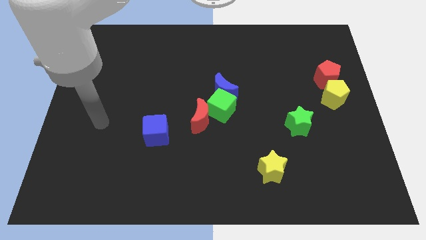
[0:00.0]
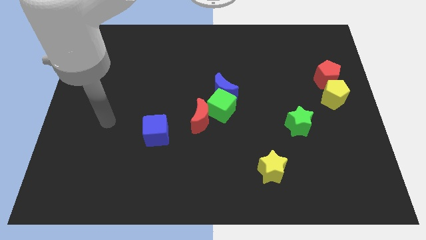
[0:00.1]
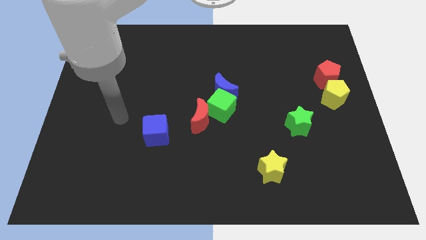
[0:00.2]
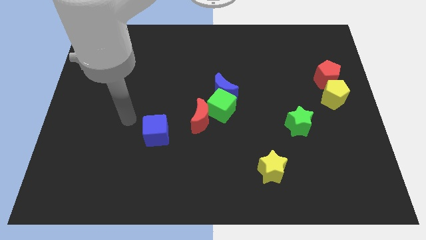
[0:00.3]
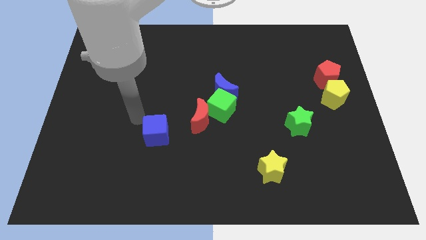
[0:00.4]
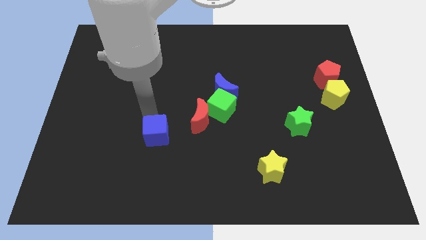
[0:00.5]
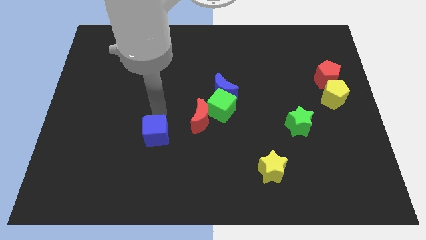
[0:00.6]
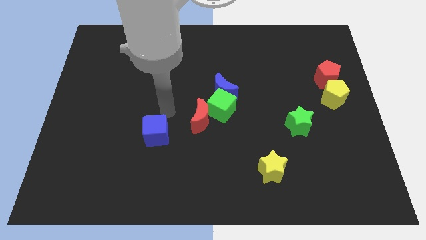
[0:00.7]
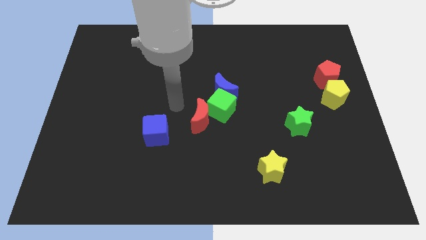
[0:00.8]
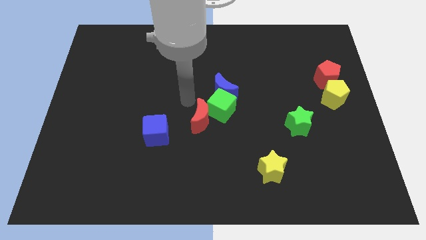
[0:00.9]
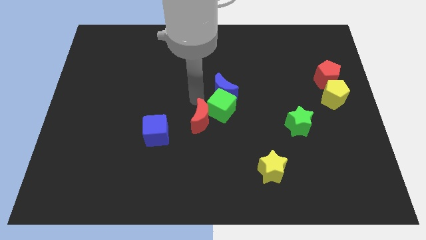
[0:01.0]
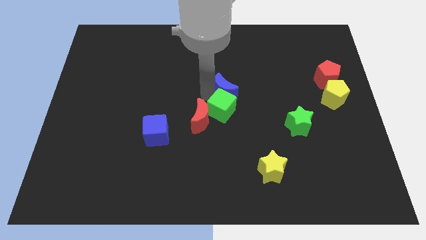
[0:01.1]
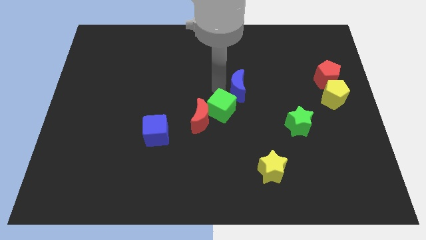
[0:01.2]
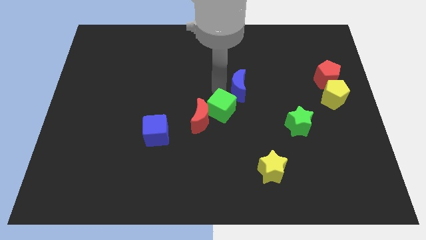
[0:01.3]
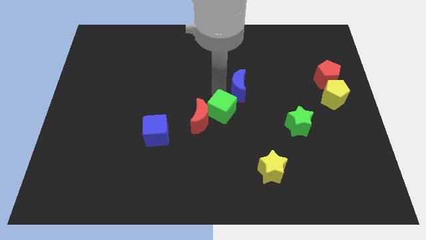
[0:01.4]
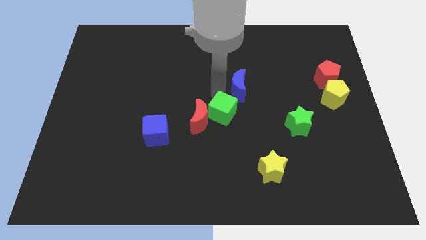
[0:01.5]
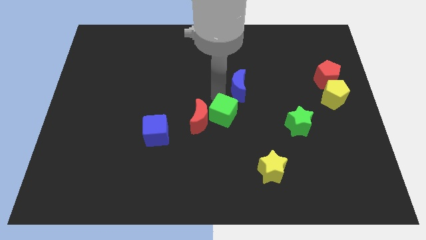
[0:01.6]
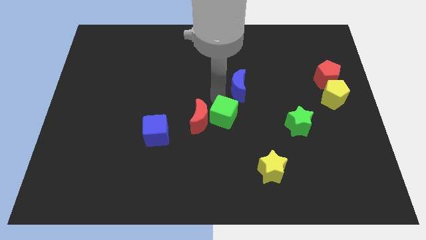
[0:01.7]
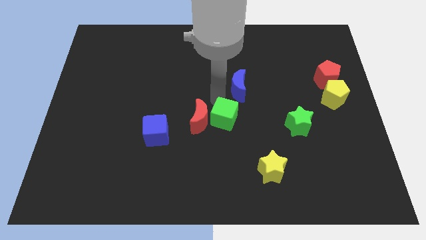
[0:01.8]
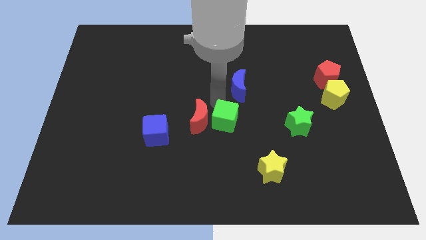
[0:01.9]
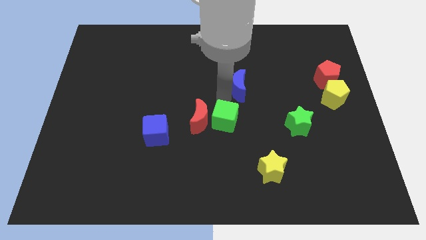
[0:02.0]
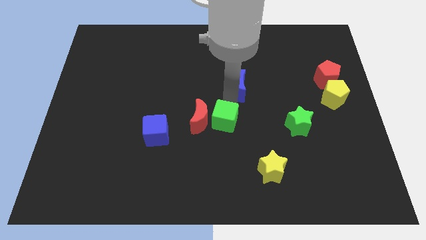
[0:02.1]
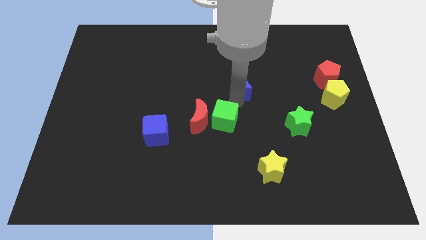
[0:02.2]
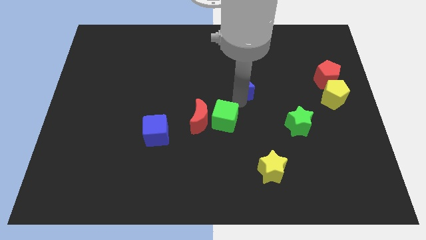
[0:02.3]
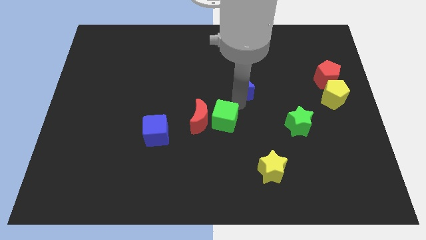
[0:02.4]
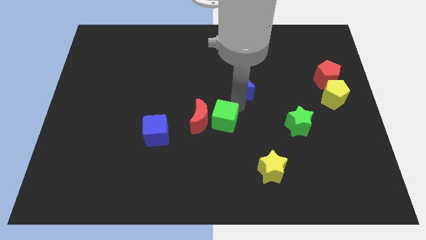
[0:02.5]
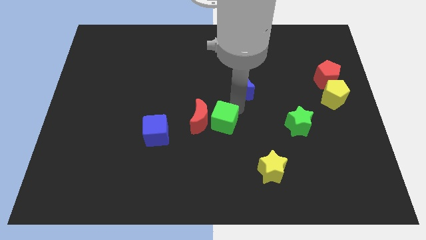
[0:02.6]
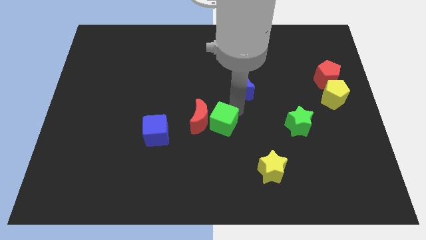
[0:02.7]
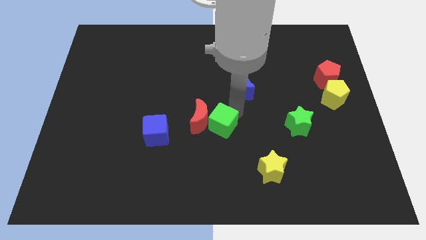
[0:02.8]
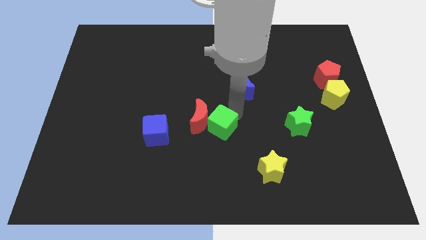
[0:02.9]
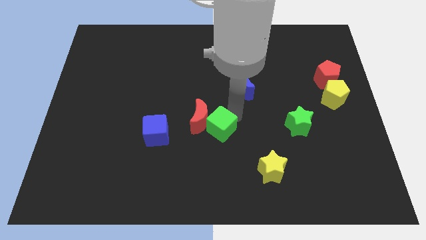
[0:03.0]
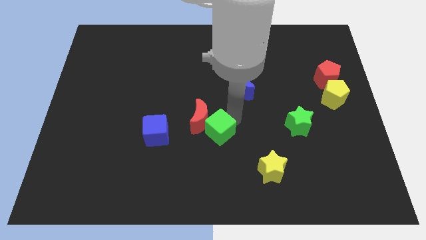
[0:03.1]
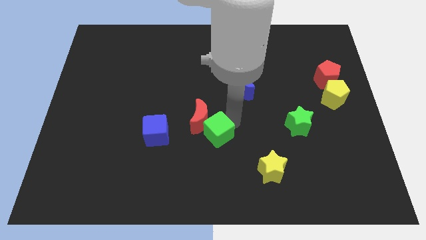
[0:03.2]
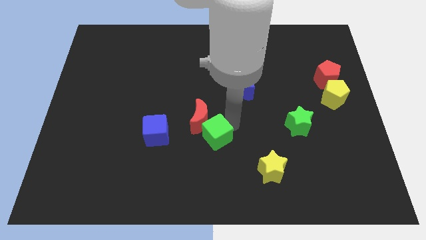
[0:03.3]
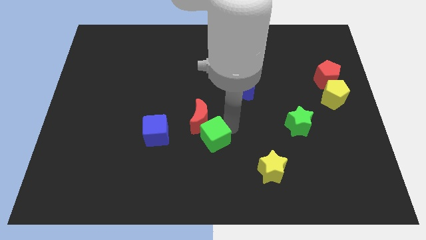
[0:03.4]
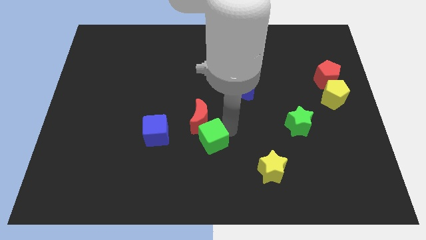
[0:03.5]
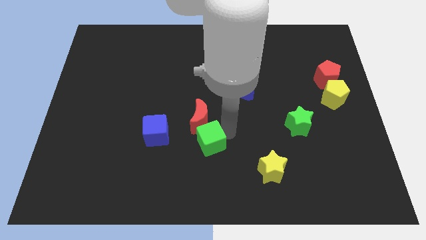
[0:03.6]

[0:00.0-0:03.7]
push the green cube diagonally down and to the left a little

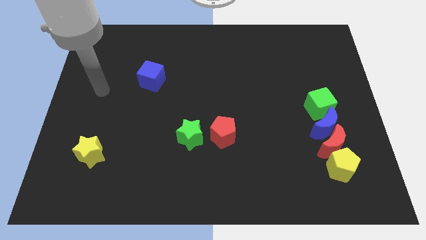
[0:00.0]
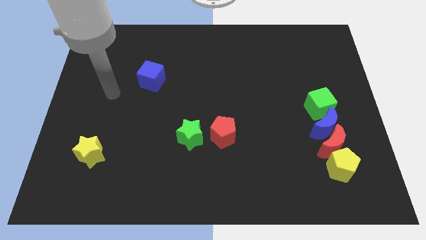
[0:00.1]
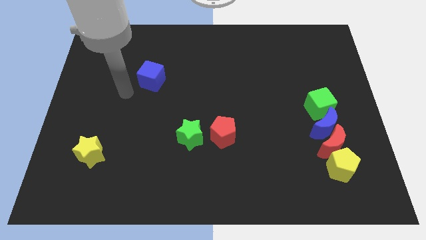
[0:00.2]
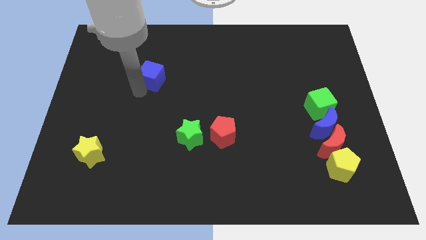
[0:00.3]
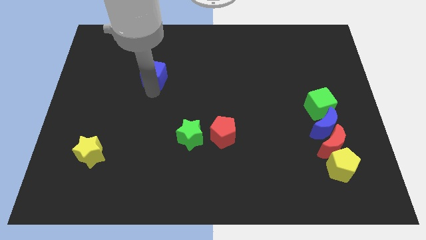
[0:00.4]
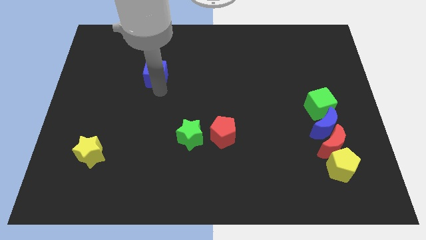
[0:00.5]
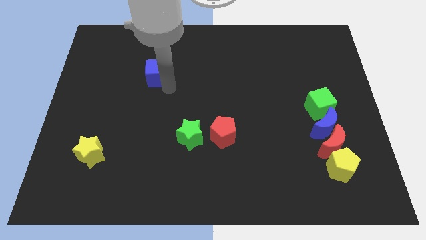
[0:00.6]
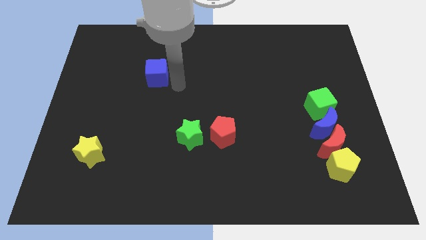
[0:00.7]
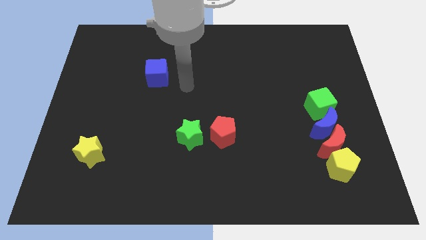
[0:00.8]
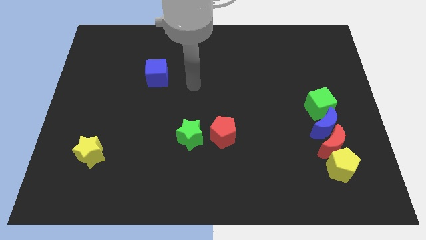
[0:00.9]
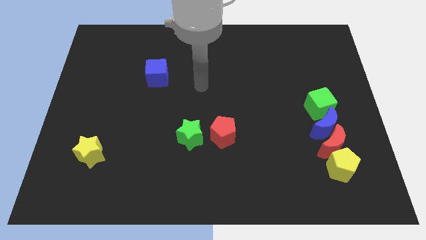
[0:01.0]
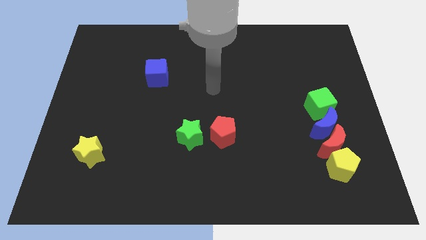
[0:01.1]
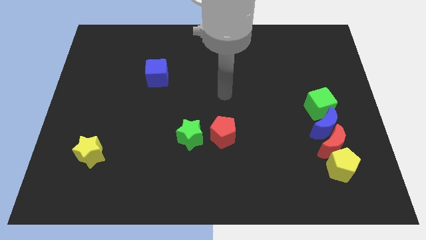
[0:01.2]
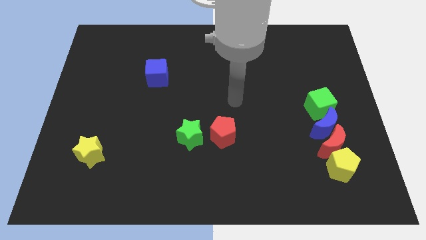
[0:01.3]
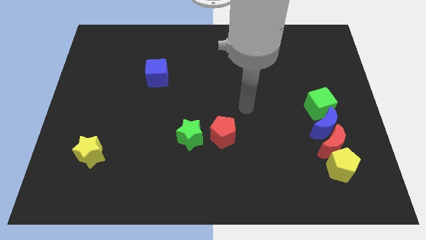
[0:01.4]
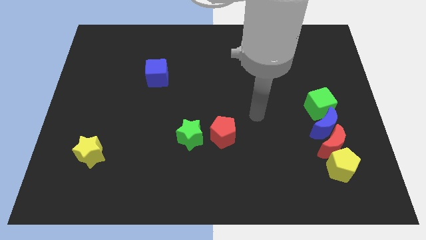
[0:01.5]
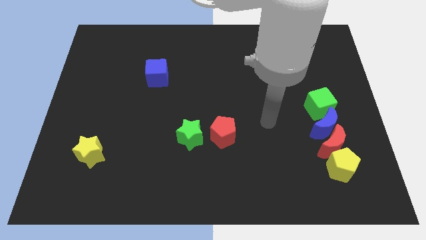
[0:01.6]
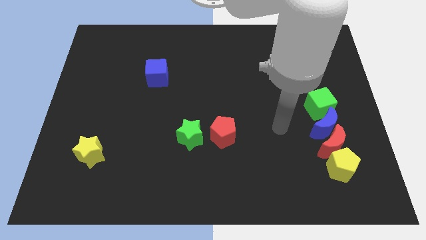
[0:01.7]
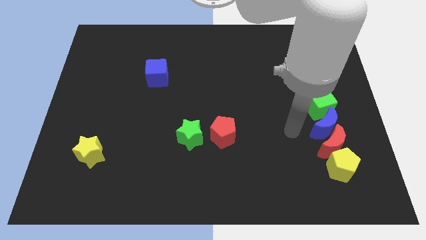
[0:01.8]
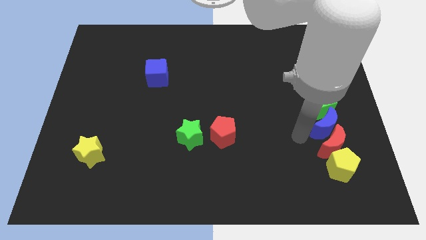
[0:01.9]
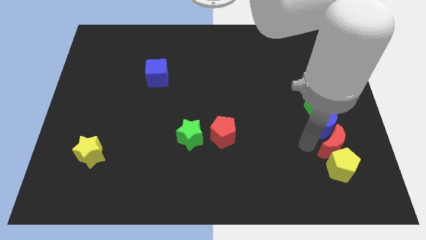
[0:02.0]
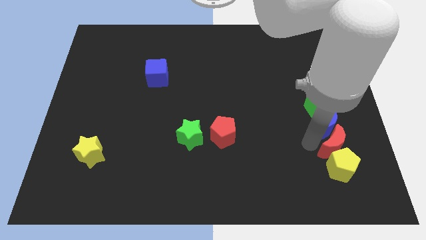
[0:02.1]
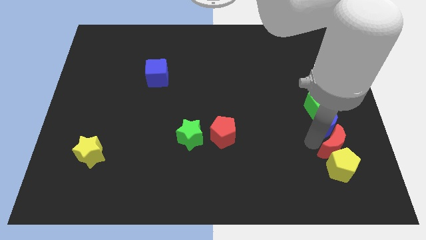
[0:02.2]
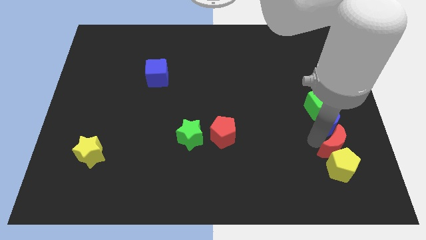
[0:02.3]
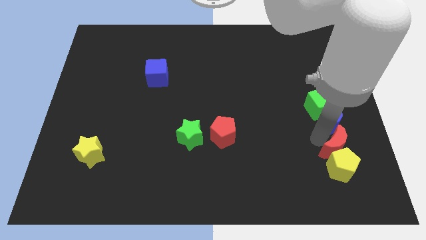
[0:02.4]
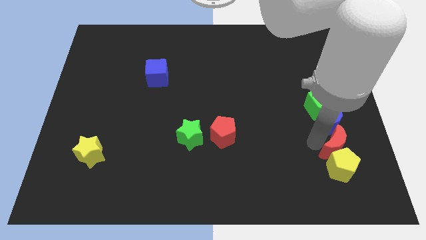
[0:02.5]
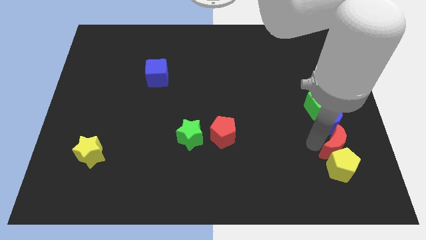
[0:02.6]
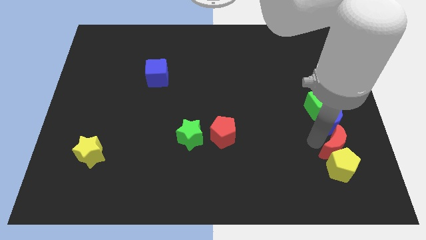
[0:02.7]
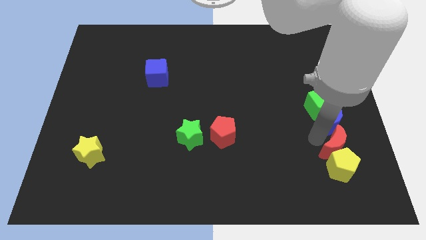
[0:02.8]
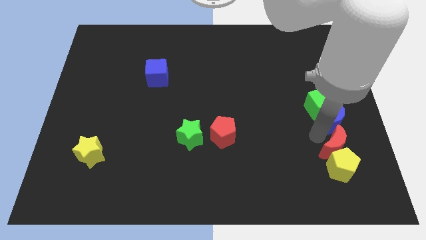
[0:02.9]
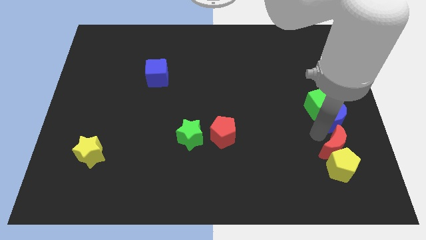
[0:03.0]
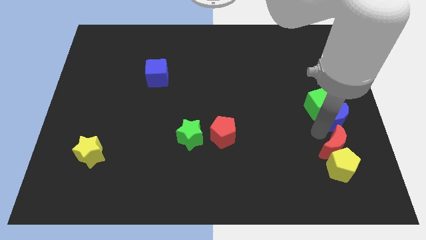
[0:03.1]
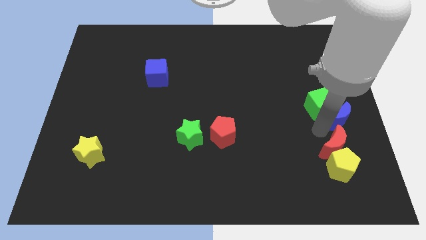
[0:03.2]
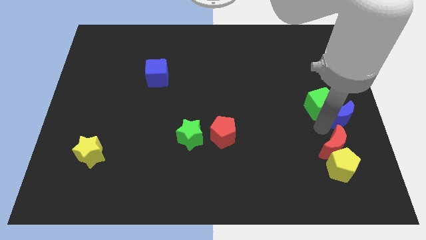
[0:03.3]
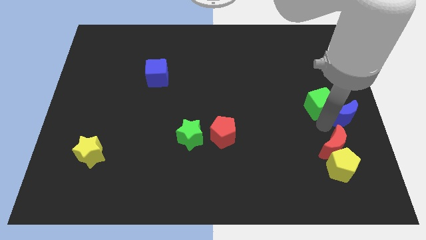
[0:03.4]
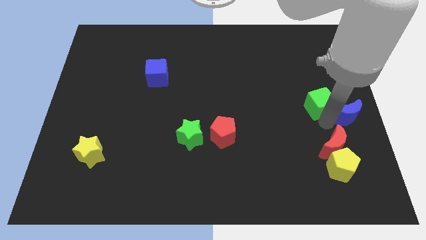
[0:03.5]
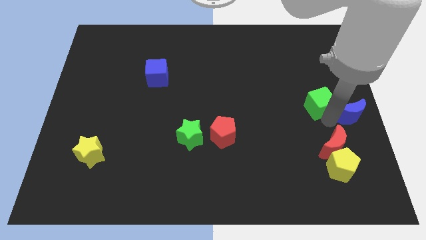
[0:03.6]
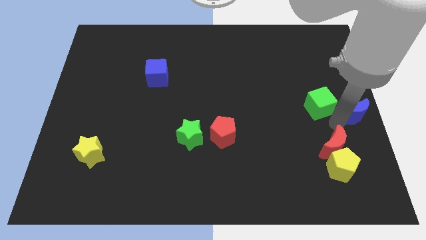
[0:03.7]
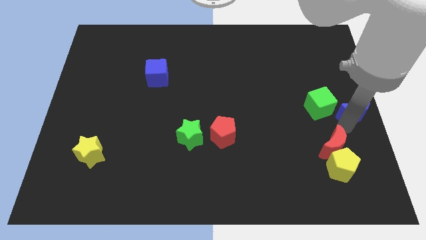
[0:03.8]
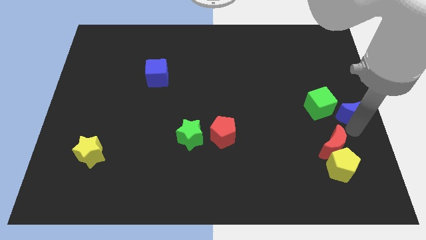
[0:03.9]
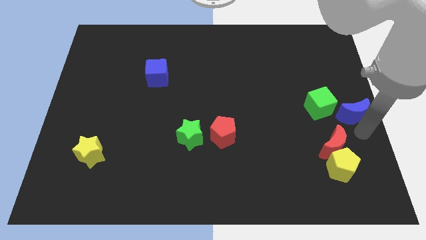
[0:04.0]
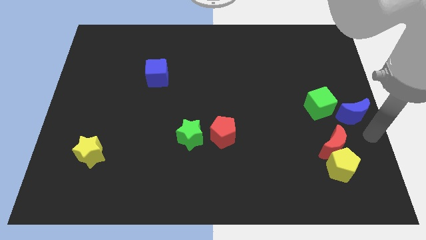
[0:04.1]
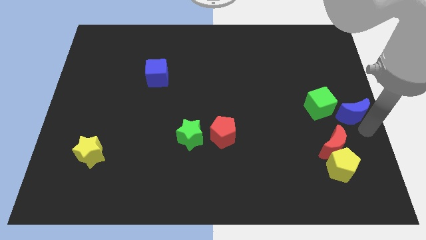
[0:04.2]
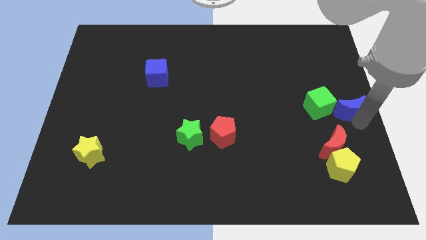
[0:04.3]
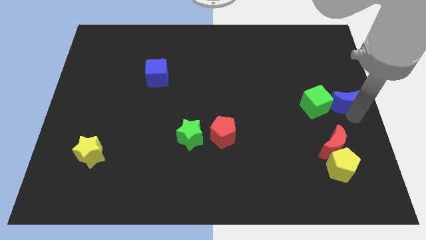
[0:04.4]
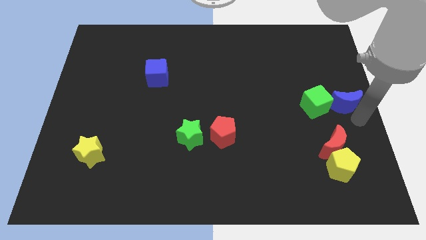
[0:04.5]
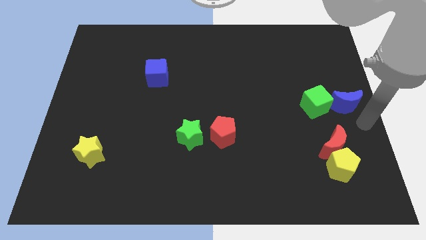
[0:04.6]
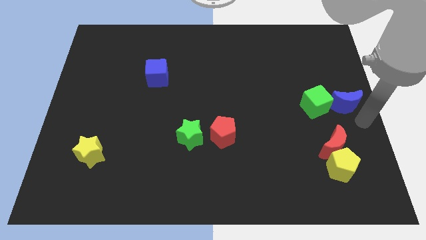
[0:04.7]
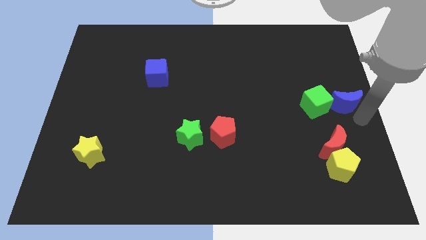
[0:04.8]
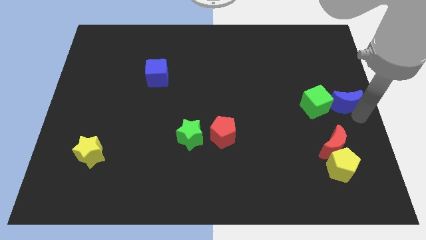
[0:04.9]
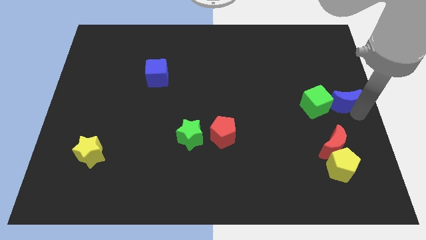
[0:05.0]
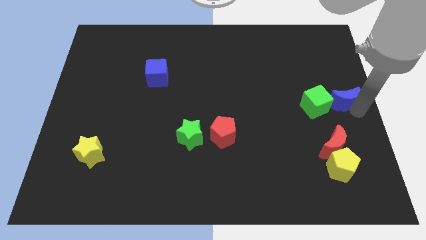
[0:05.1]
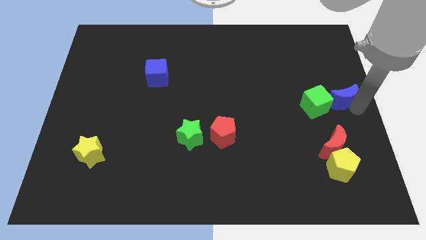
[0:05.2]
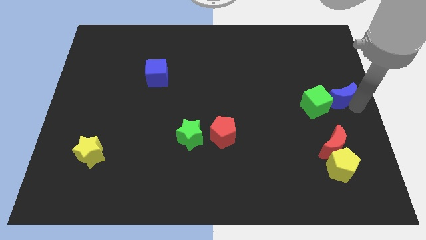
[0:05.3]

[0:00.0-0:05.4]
push the blue moon upwards a little
